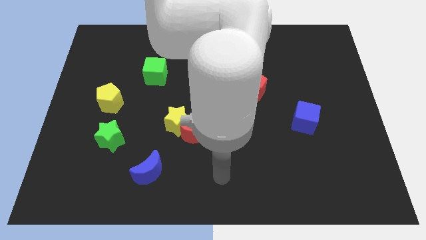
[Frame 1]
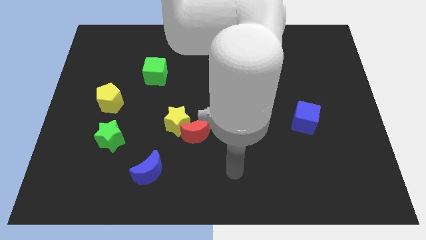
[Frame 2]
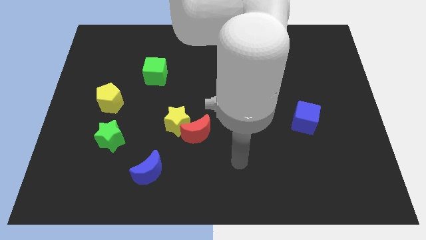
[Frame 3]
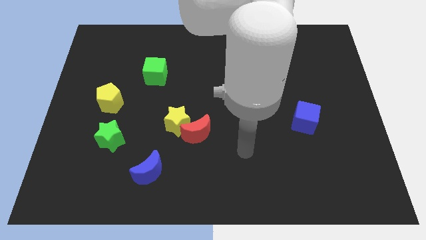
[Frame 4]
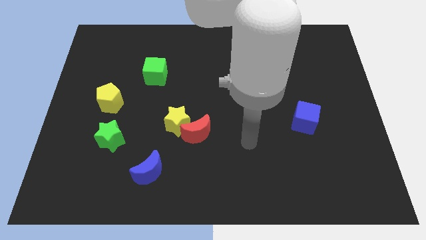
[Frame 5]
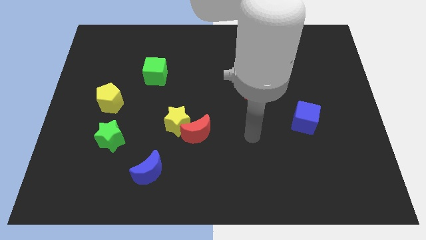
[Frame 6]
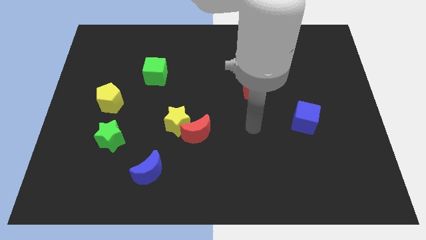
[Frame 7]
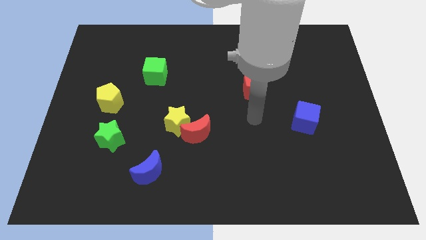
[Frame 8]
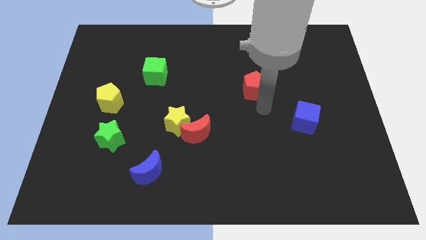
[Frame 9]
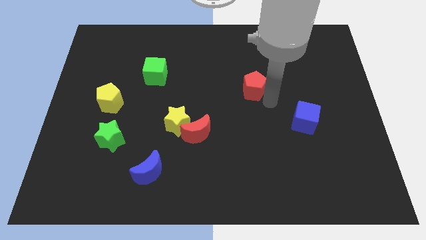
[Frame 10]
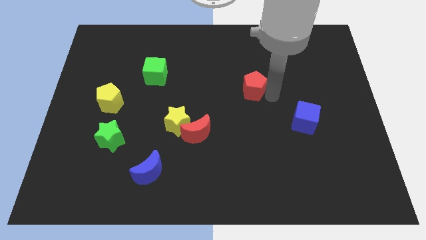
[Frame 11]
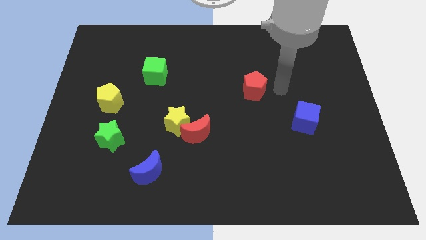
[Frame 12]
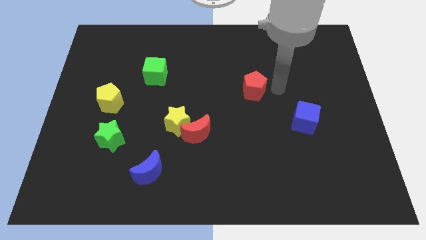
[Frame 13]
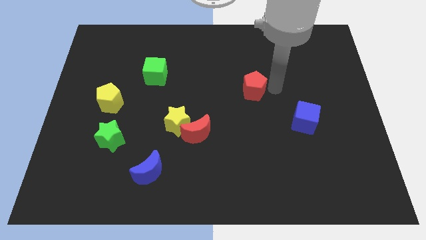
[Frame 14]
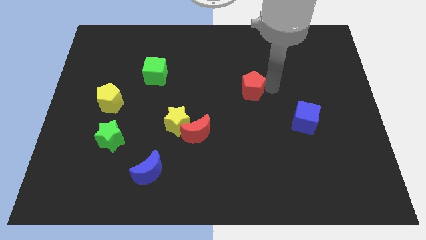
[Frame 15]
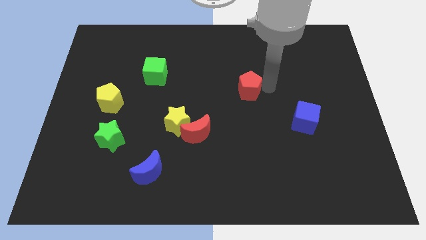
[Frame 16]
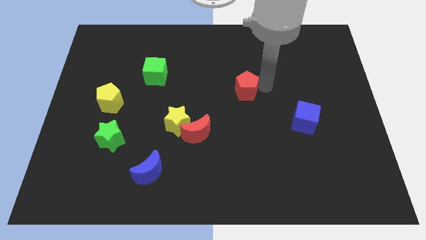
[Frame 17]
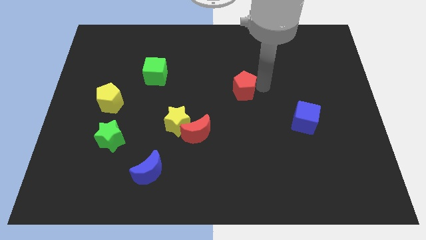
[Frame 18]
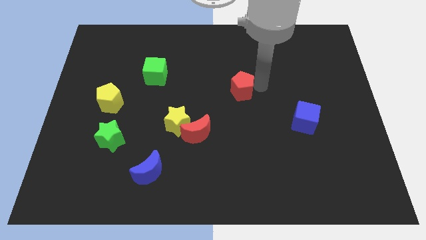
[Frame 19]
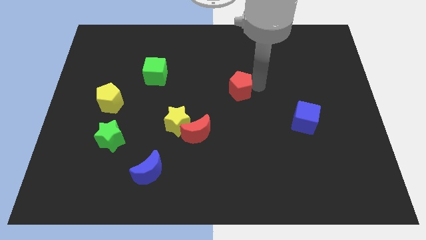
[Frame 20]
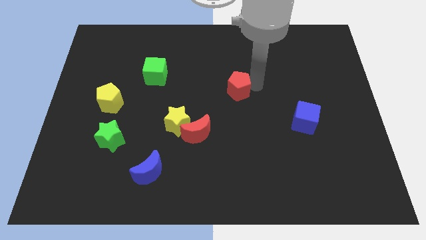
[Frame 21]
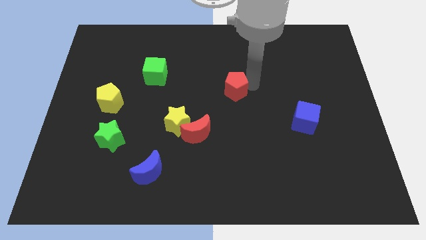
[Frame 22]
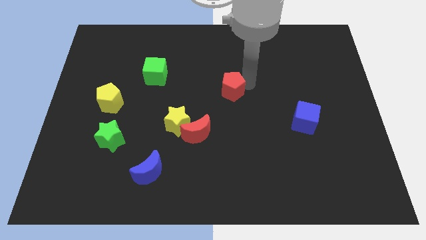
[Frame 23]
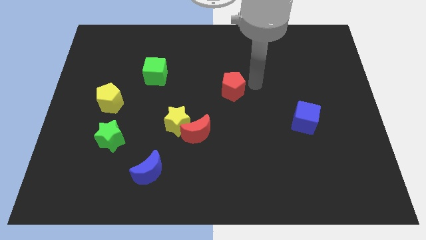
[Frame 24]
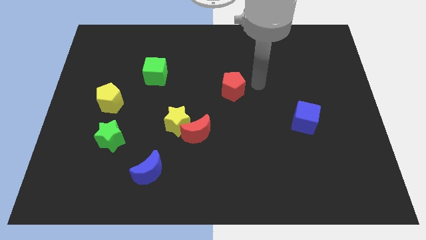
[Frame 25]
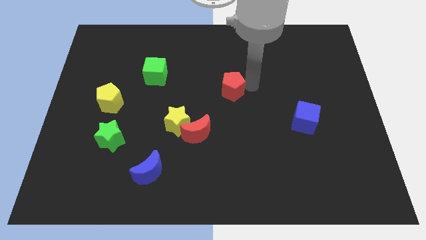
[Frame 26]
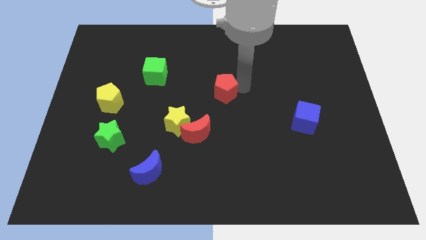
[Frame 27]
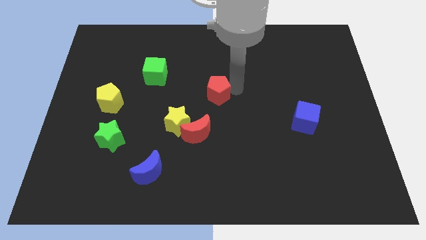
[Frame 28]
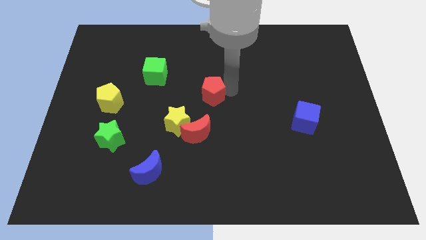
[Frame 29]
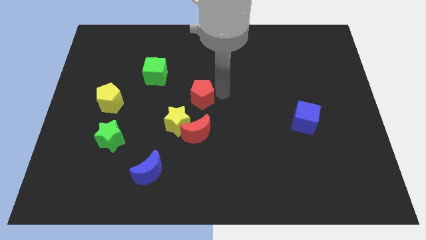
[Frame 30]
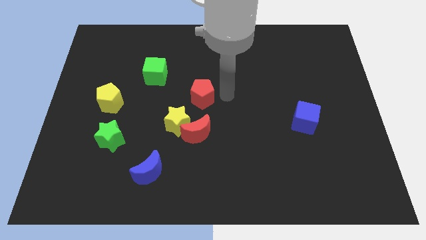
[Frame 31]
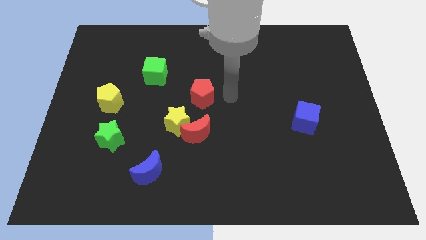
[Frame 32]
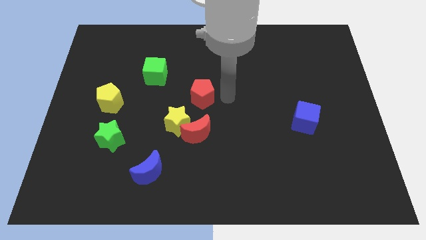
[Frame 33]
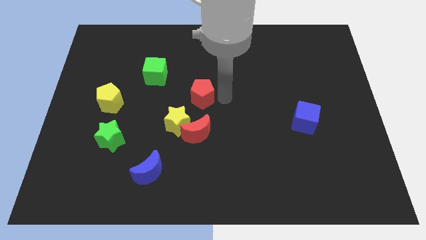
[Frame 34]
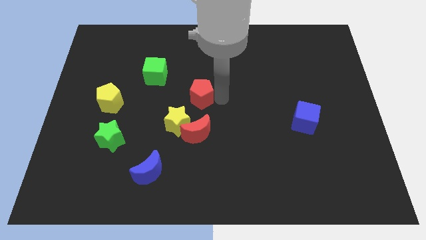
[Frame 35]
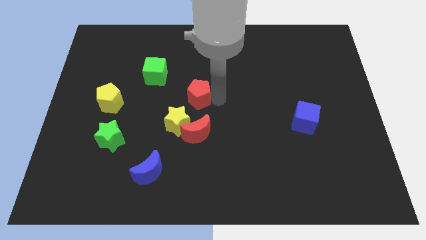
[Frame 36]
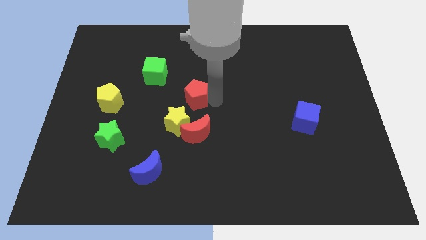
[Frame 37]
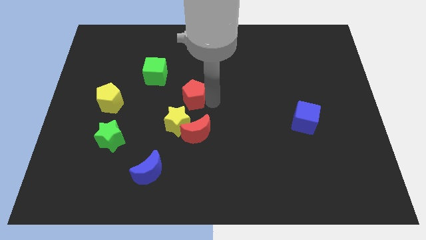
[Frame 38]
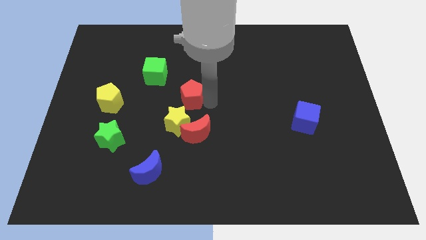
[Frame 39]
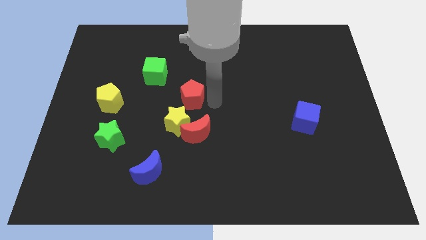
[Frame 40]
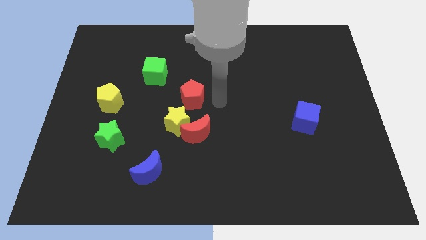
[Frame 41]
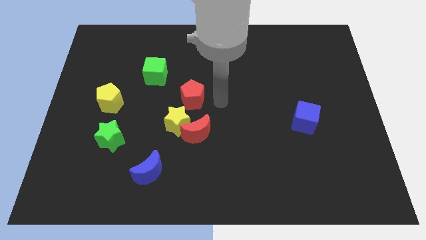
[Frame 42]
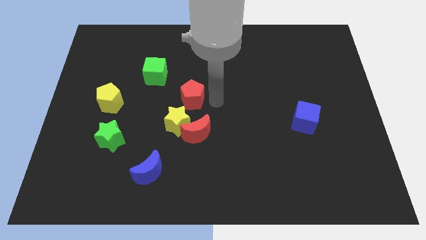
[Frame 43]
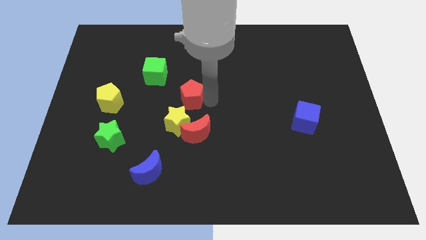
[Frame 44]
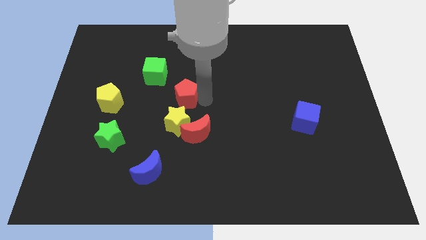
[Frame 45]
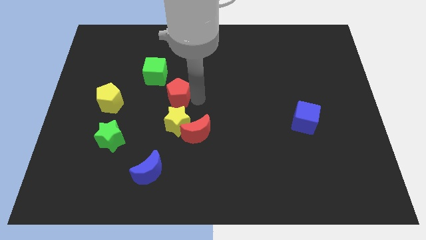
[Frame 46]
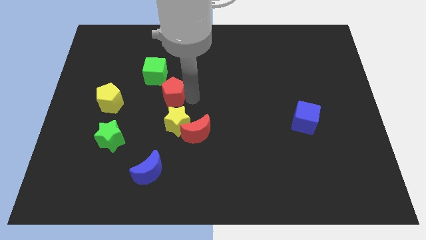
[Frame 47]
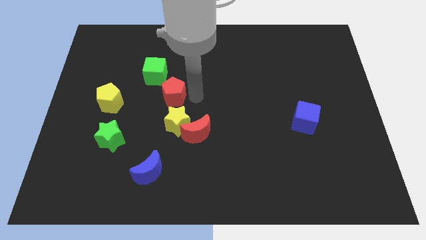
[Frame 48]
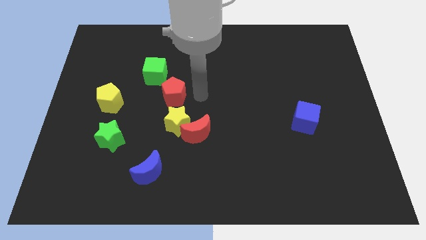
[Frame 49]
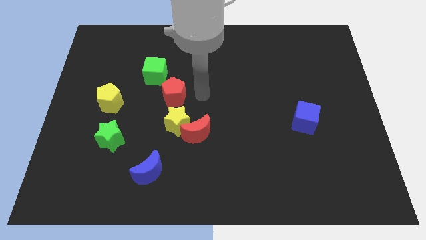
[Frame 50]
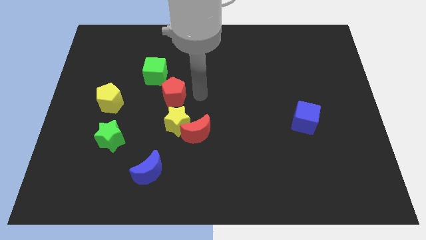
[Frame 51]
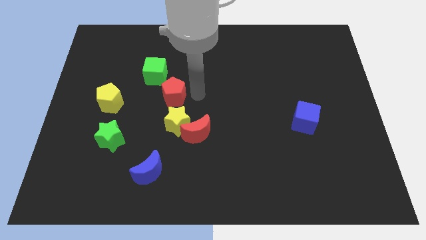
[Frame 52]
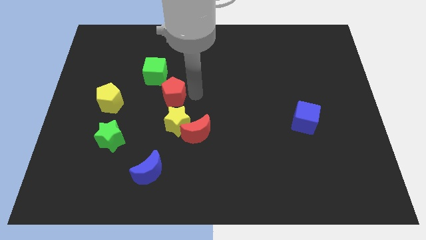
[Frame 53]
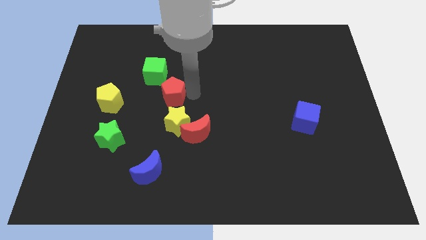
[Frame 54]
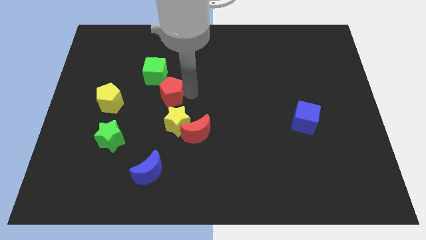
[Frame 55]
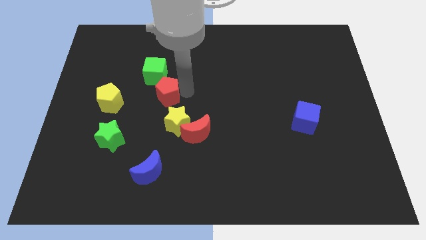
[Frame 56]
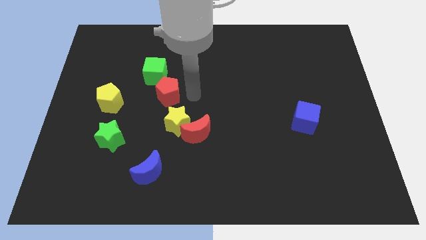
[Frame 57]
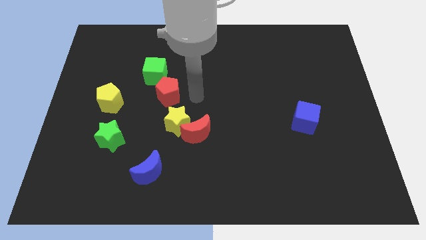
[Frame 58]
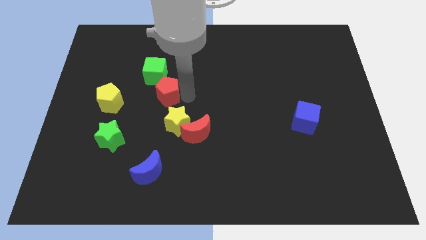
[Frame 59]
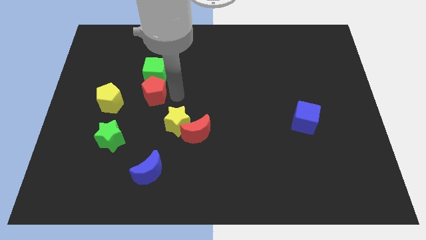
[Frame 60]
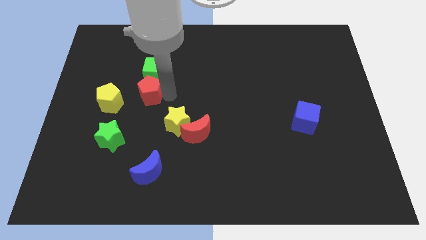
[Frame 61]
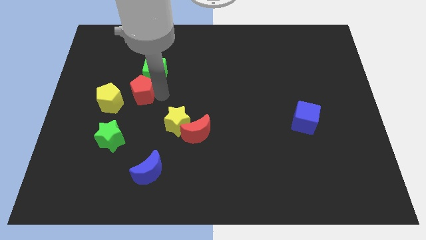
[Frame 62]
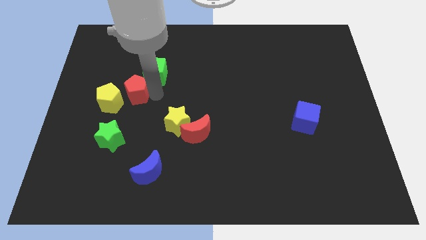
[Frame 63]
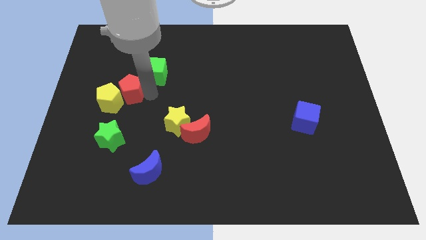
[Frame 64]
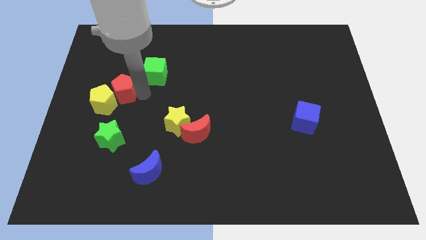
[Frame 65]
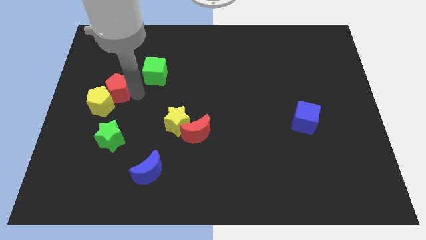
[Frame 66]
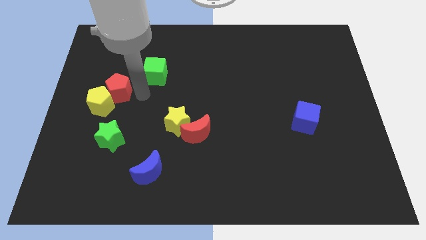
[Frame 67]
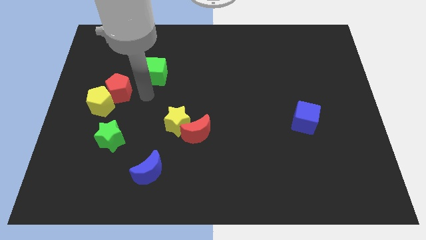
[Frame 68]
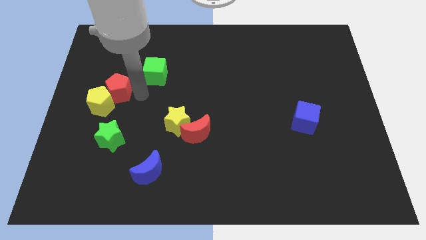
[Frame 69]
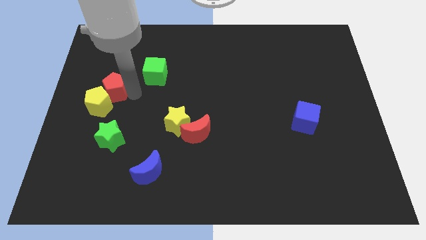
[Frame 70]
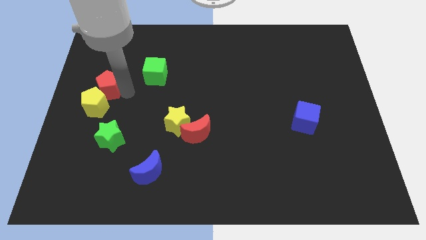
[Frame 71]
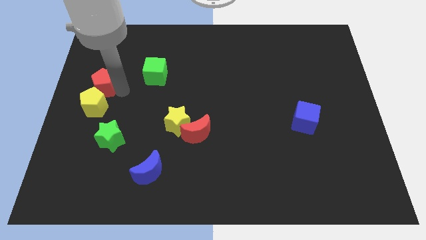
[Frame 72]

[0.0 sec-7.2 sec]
move the red pentagon to the left side
